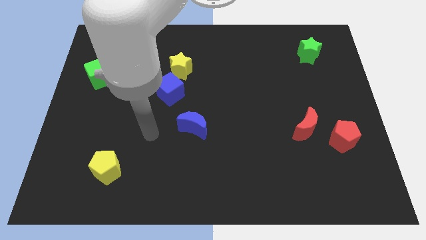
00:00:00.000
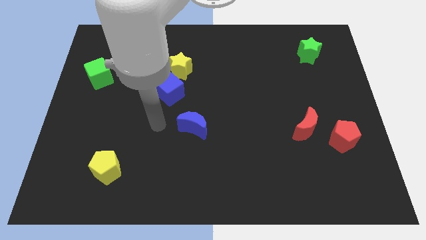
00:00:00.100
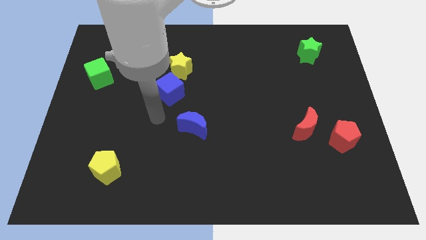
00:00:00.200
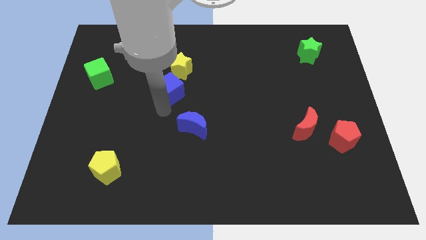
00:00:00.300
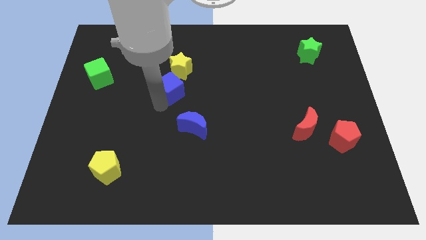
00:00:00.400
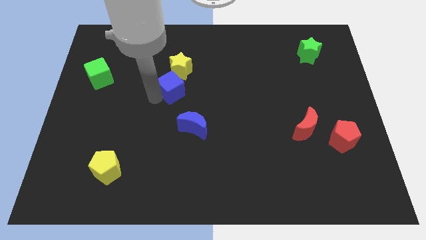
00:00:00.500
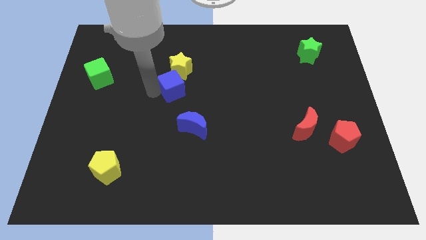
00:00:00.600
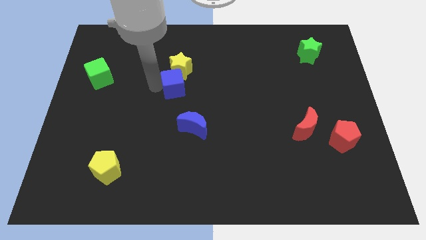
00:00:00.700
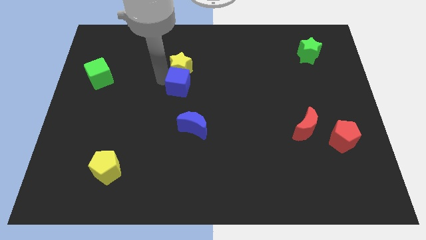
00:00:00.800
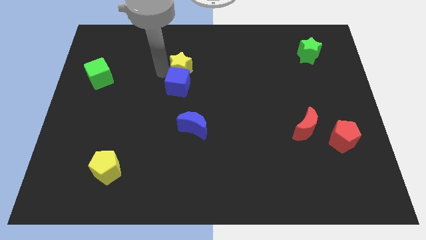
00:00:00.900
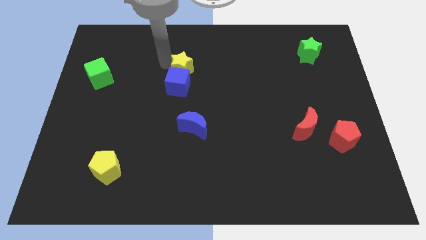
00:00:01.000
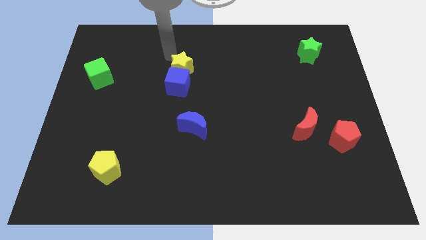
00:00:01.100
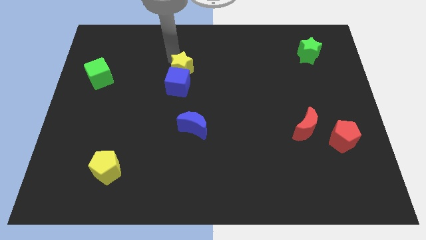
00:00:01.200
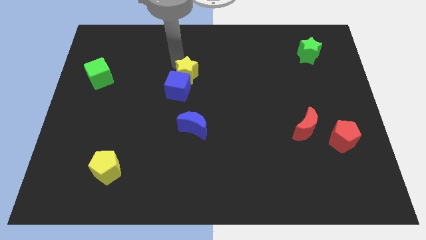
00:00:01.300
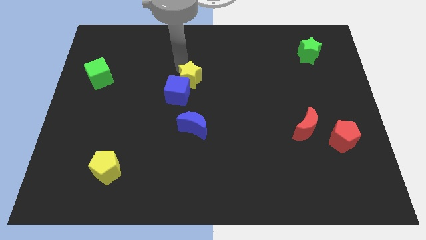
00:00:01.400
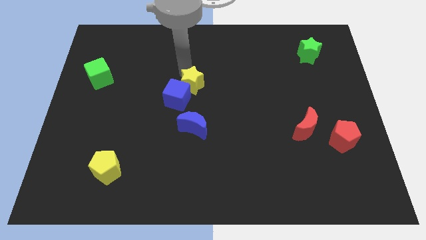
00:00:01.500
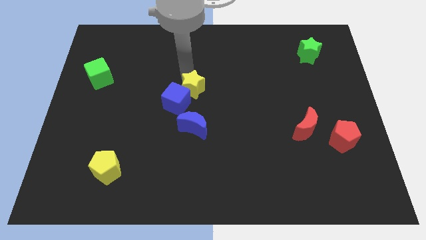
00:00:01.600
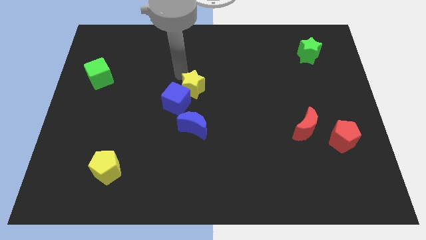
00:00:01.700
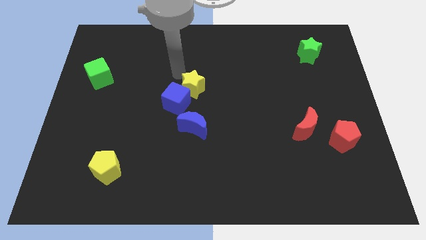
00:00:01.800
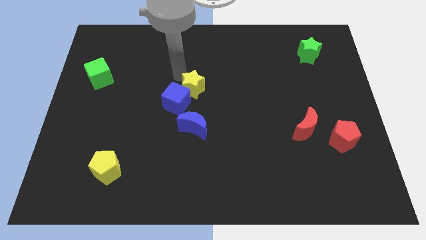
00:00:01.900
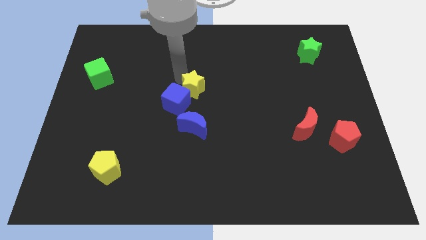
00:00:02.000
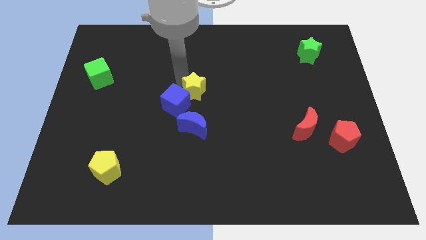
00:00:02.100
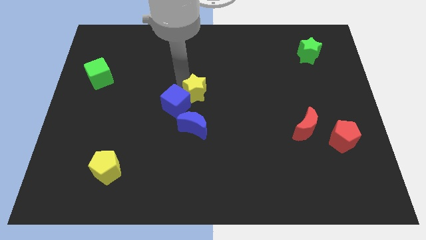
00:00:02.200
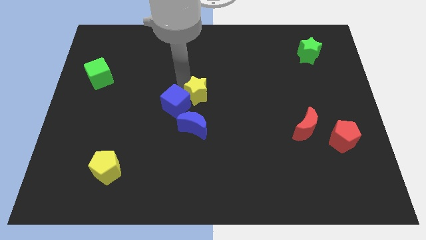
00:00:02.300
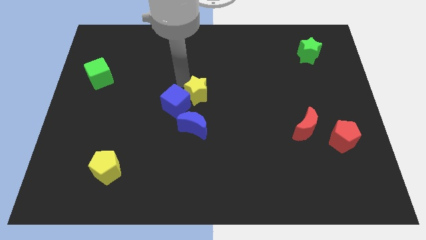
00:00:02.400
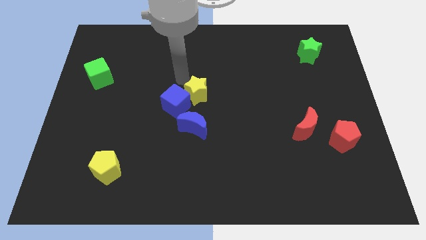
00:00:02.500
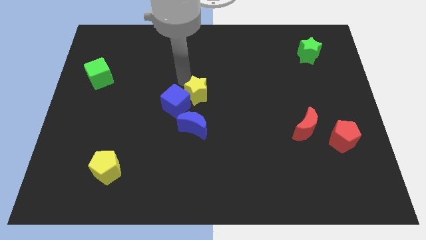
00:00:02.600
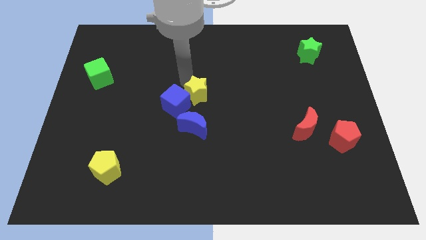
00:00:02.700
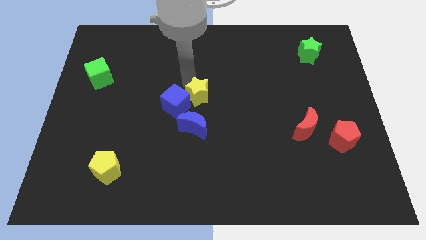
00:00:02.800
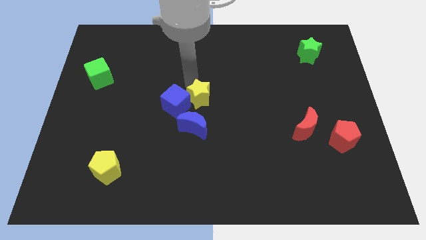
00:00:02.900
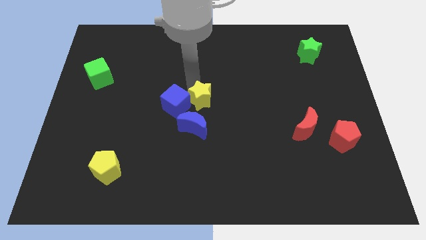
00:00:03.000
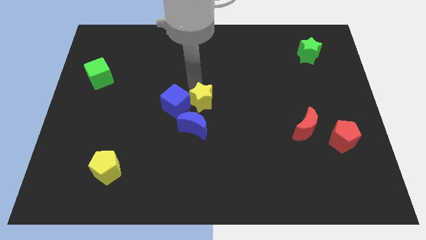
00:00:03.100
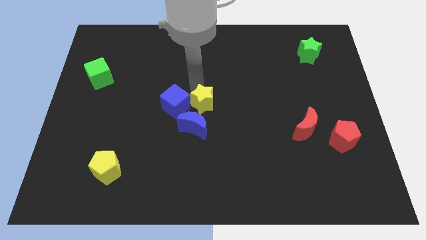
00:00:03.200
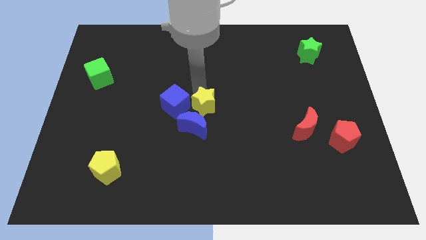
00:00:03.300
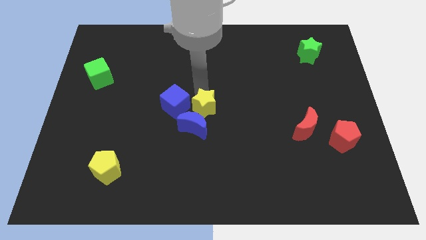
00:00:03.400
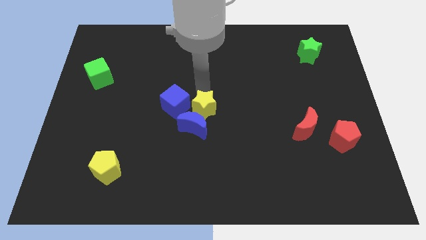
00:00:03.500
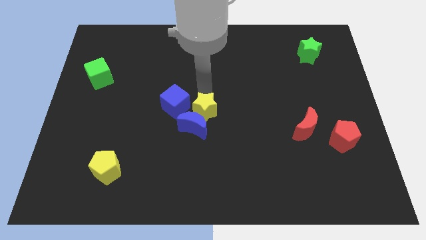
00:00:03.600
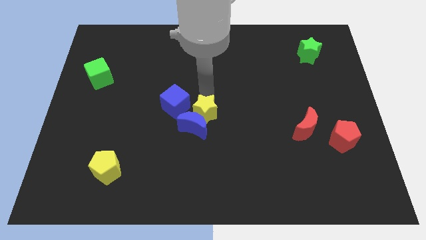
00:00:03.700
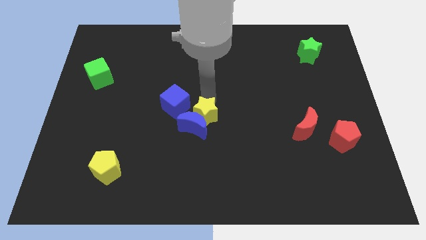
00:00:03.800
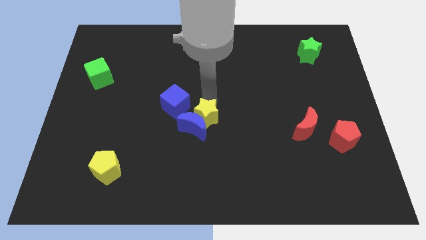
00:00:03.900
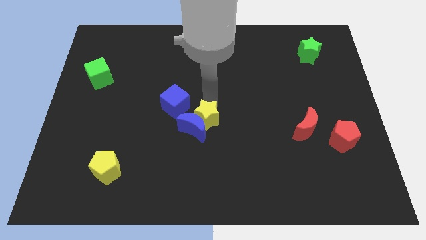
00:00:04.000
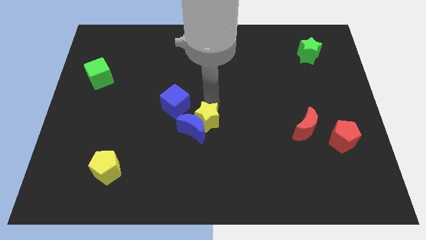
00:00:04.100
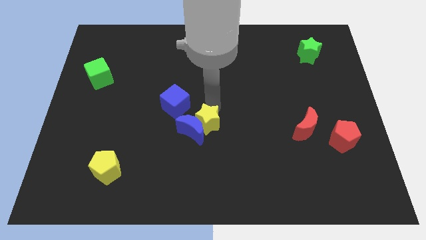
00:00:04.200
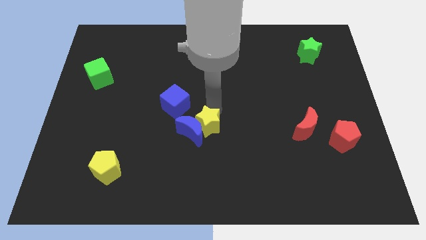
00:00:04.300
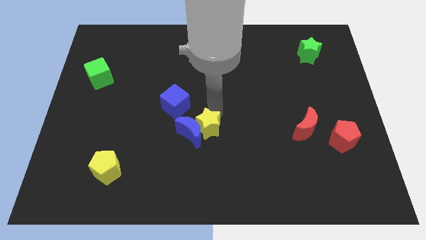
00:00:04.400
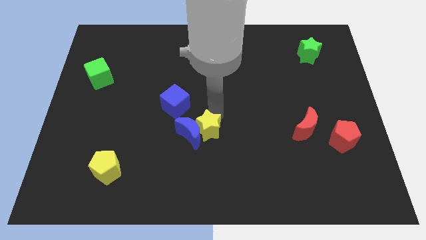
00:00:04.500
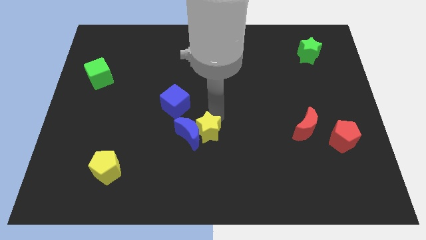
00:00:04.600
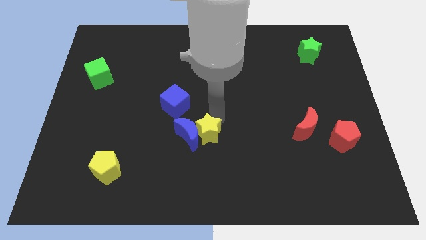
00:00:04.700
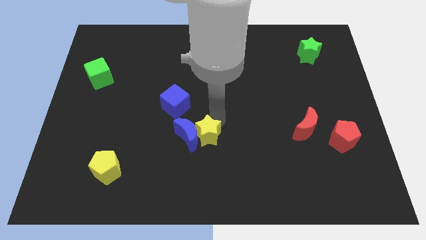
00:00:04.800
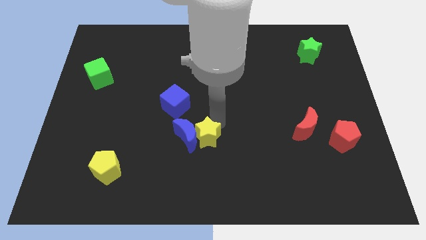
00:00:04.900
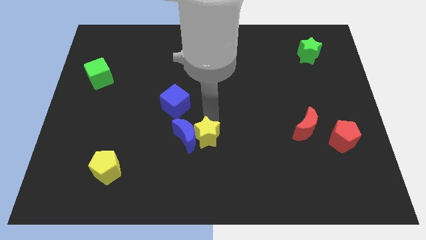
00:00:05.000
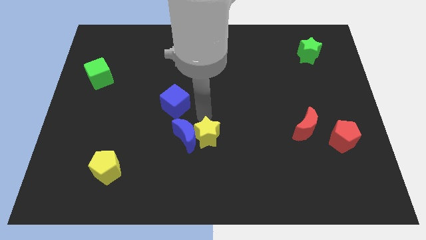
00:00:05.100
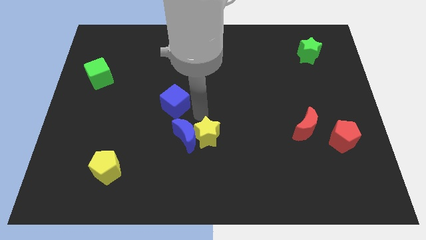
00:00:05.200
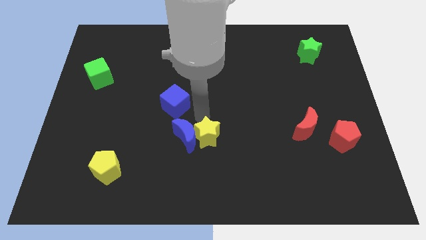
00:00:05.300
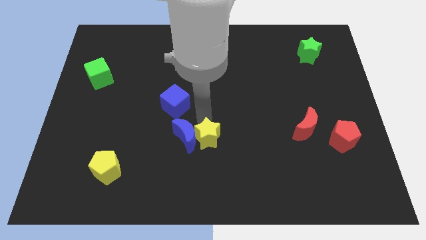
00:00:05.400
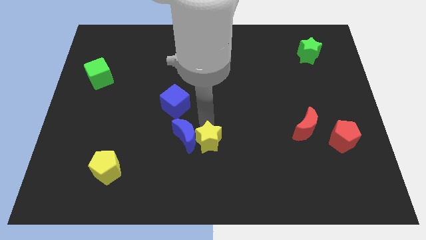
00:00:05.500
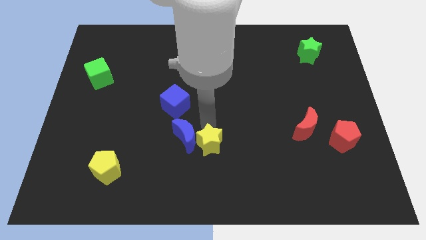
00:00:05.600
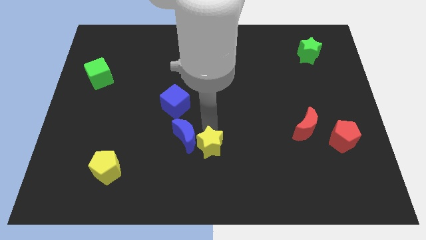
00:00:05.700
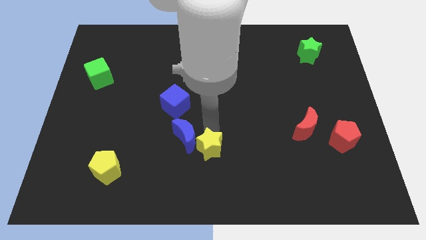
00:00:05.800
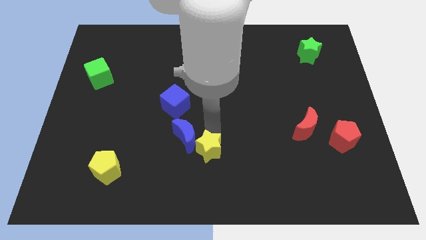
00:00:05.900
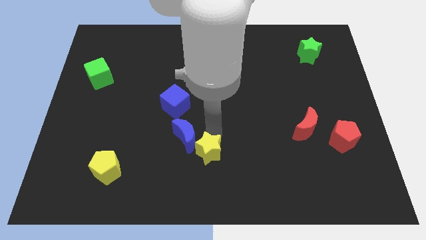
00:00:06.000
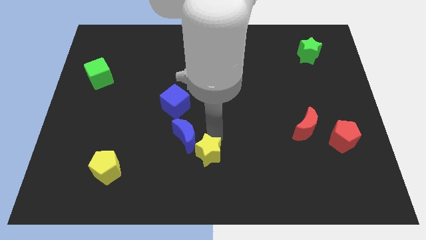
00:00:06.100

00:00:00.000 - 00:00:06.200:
put the yellow star to the bottom side

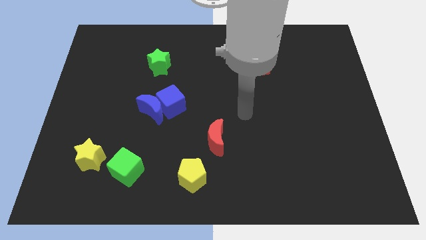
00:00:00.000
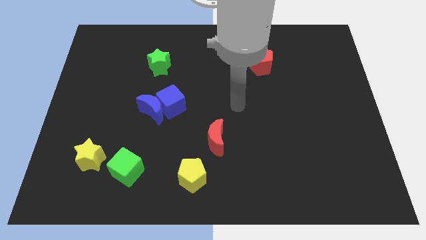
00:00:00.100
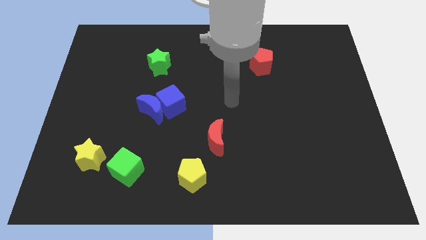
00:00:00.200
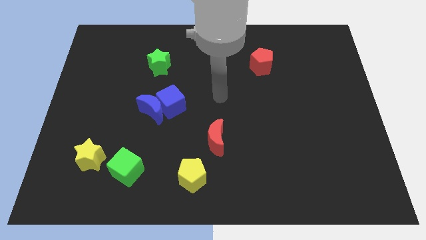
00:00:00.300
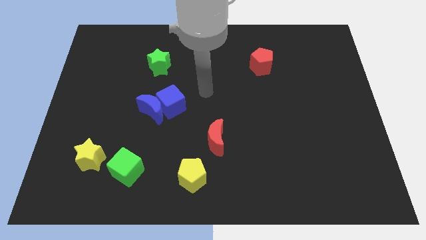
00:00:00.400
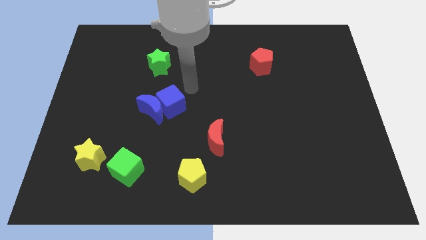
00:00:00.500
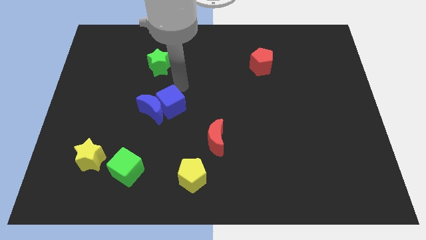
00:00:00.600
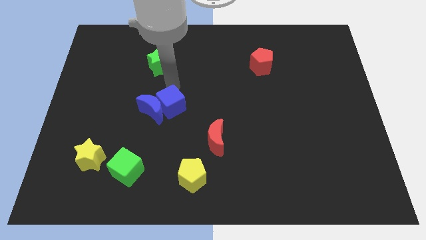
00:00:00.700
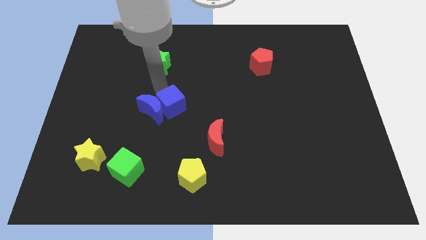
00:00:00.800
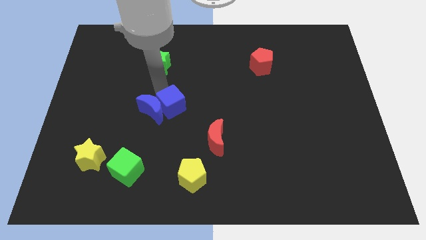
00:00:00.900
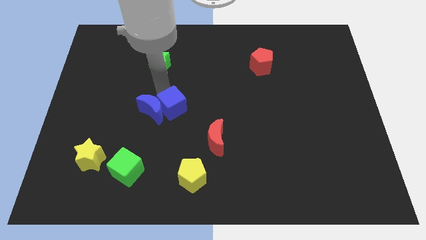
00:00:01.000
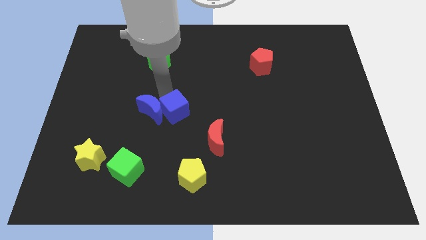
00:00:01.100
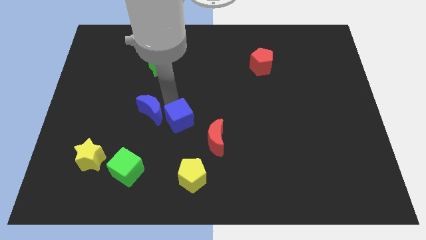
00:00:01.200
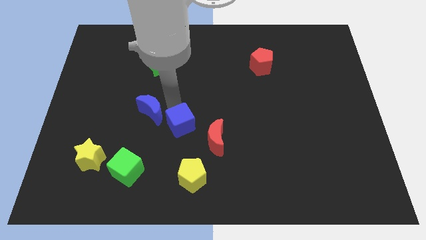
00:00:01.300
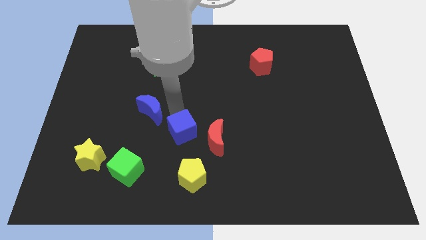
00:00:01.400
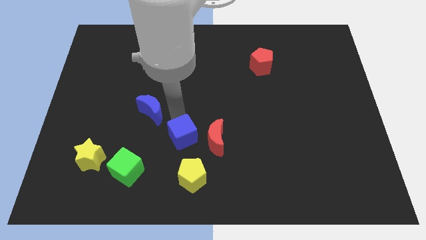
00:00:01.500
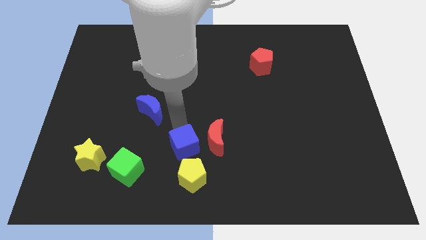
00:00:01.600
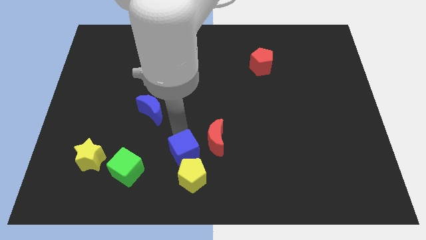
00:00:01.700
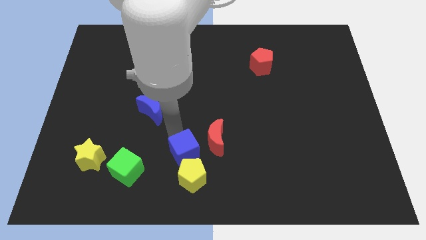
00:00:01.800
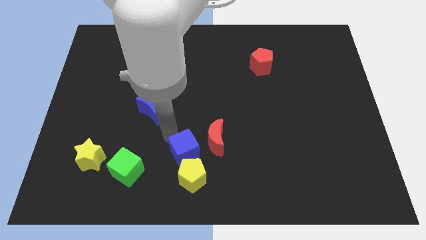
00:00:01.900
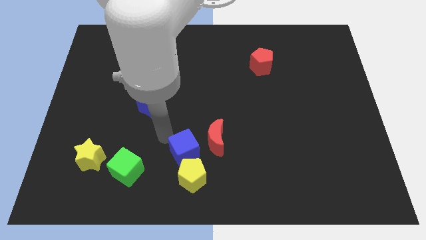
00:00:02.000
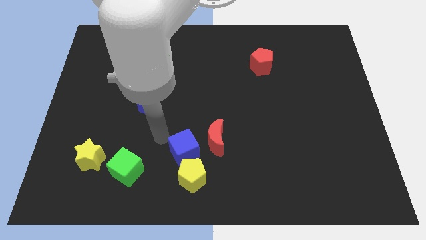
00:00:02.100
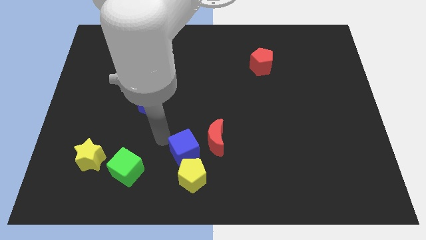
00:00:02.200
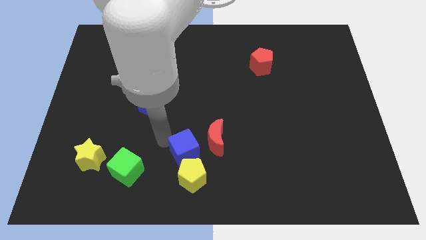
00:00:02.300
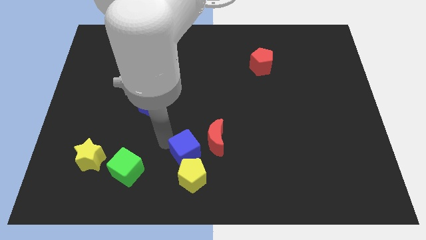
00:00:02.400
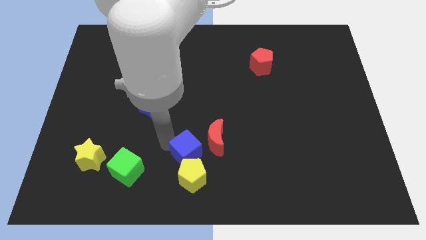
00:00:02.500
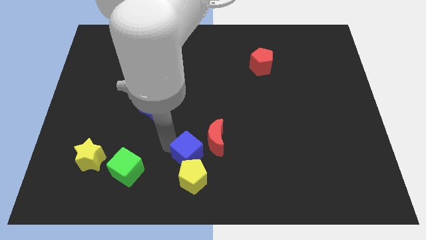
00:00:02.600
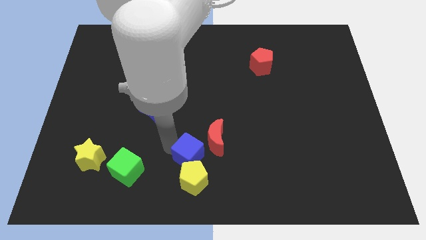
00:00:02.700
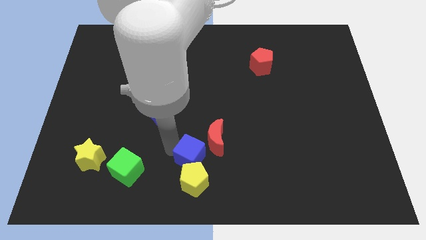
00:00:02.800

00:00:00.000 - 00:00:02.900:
move the blue cube to the bottom
